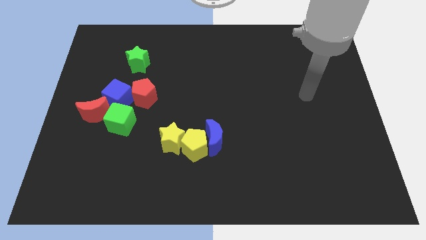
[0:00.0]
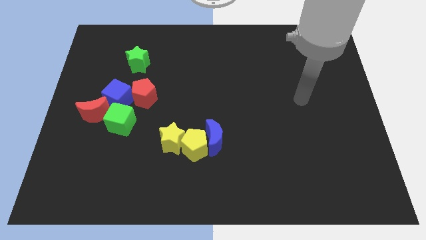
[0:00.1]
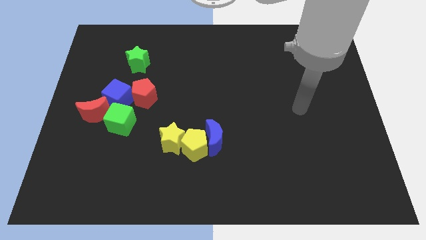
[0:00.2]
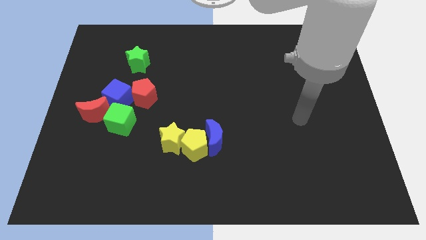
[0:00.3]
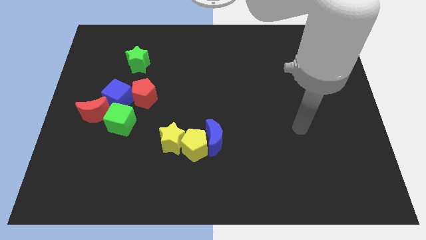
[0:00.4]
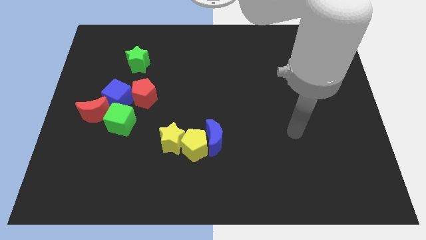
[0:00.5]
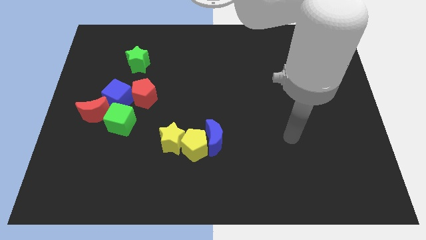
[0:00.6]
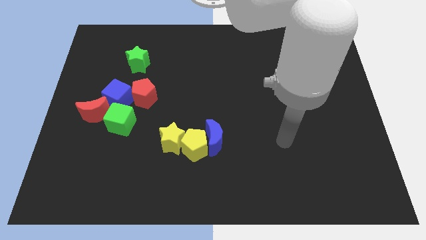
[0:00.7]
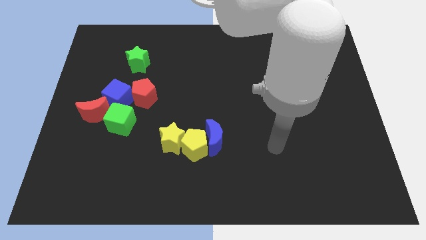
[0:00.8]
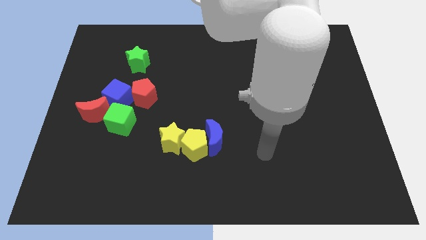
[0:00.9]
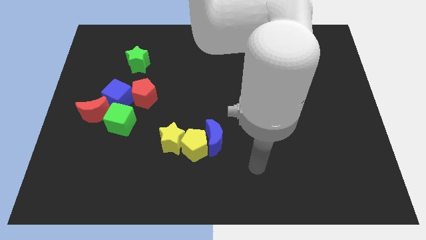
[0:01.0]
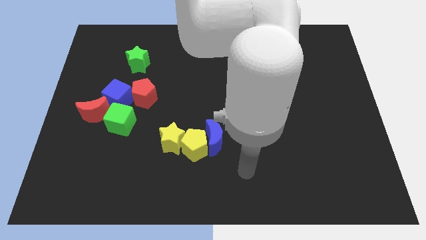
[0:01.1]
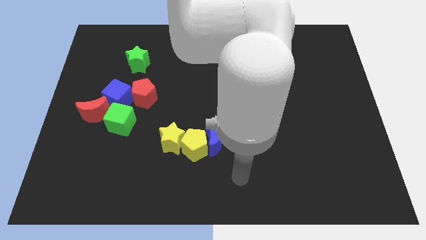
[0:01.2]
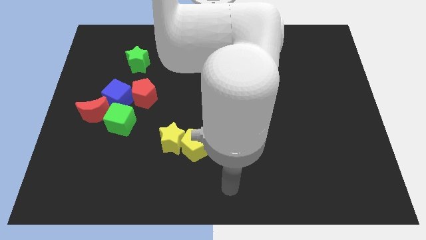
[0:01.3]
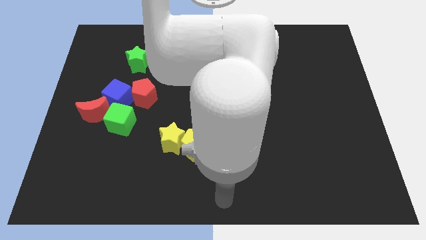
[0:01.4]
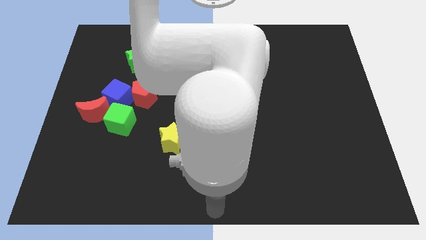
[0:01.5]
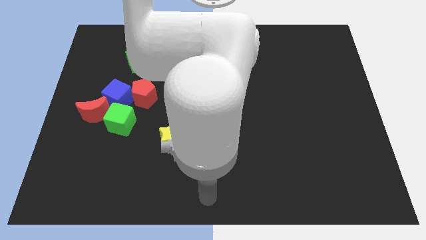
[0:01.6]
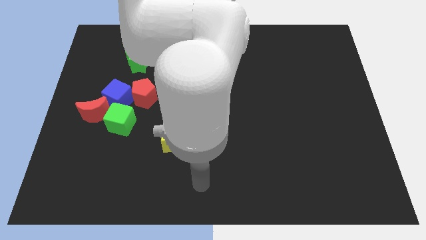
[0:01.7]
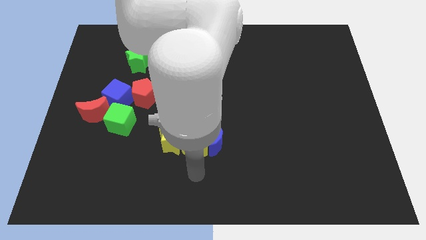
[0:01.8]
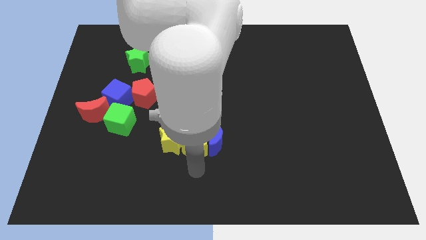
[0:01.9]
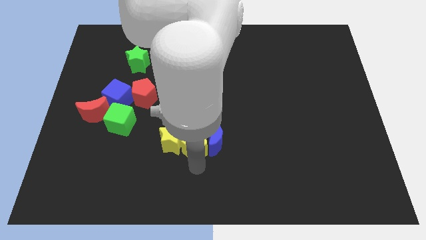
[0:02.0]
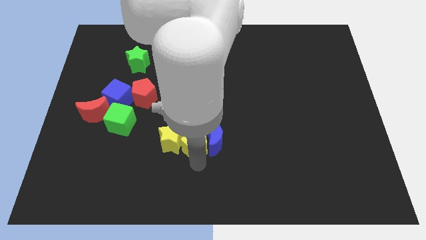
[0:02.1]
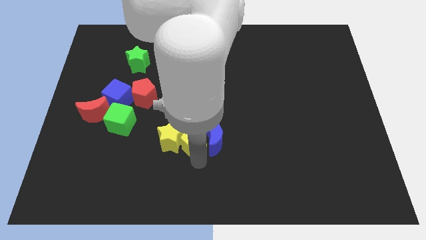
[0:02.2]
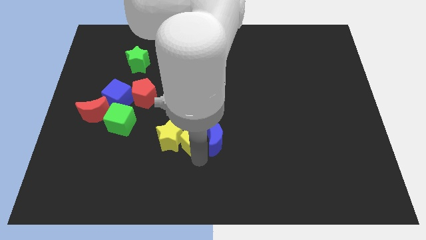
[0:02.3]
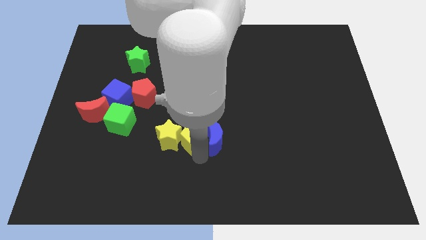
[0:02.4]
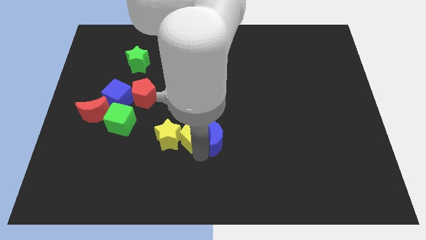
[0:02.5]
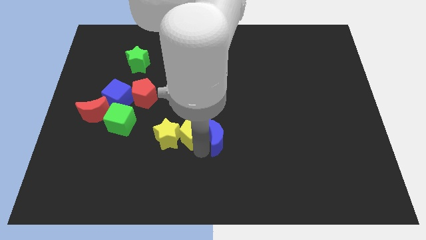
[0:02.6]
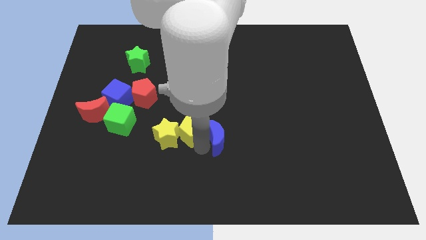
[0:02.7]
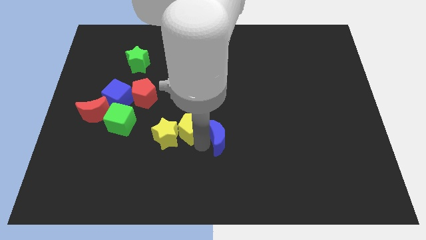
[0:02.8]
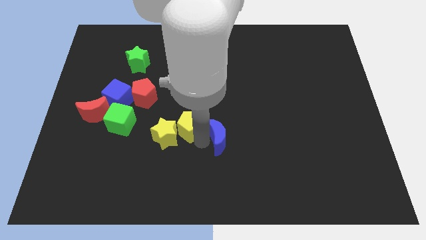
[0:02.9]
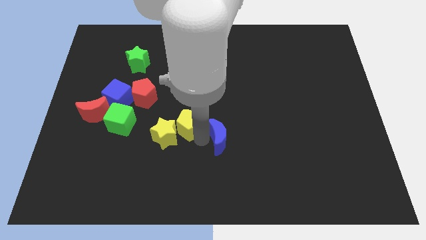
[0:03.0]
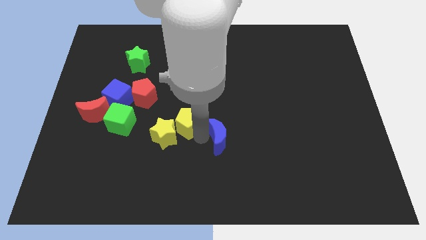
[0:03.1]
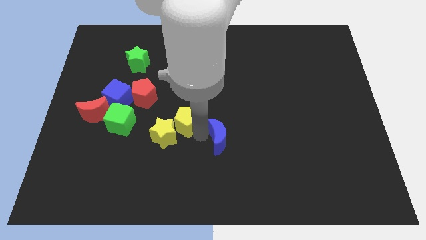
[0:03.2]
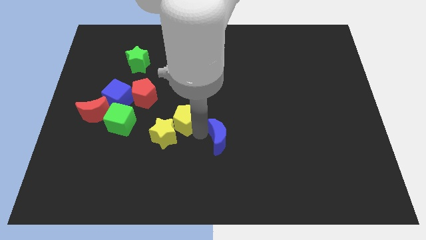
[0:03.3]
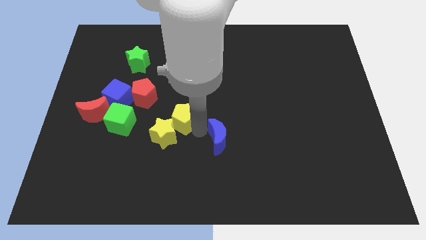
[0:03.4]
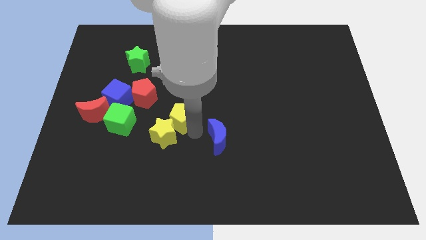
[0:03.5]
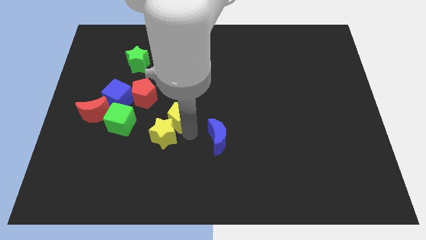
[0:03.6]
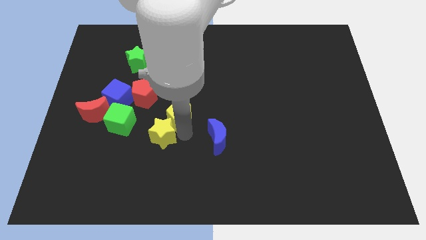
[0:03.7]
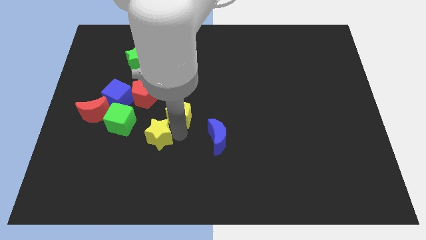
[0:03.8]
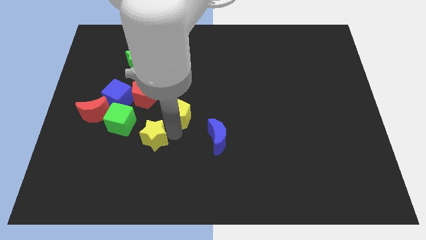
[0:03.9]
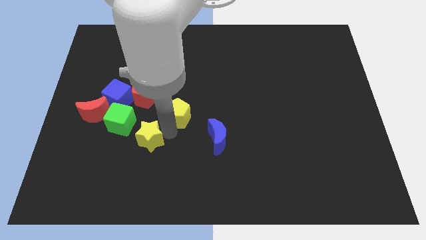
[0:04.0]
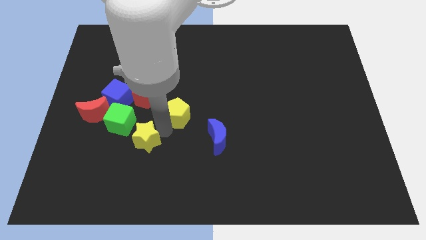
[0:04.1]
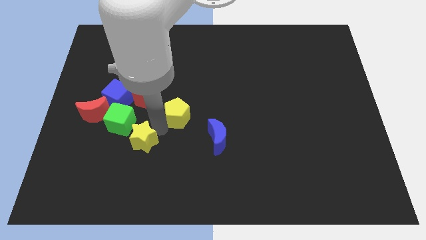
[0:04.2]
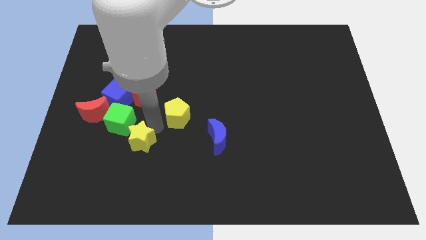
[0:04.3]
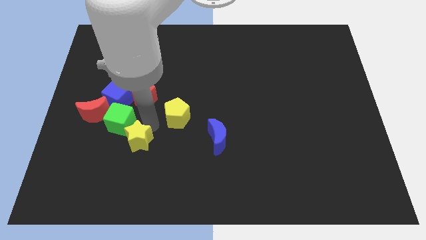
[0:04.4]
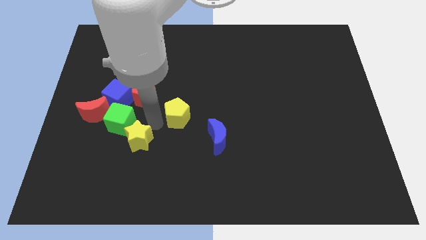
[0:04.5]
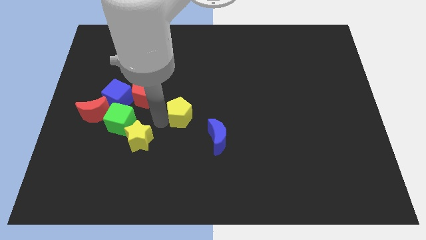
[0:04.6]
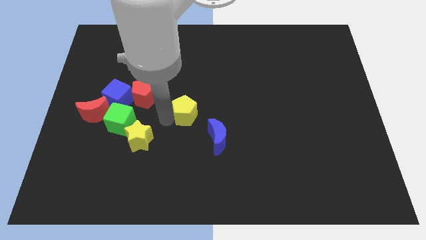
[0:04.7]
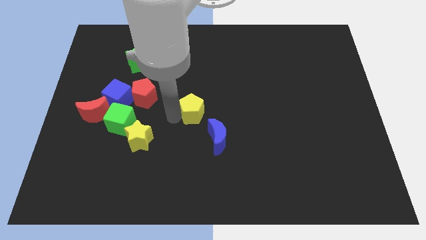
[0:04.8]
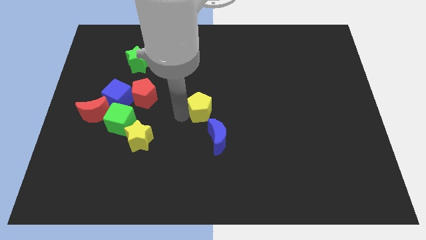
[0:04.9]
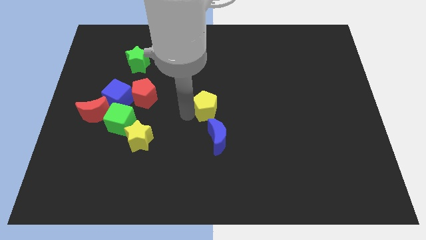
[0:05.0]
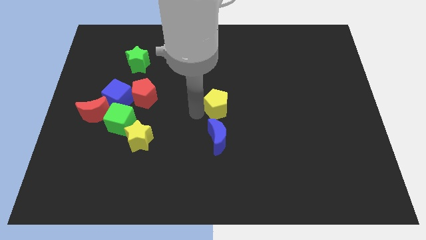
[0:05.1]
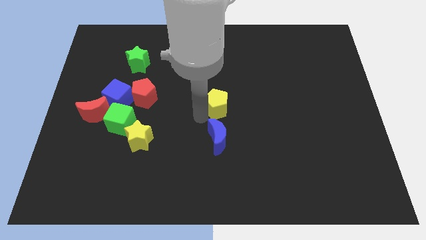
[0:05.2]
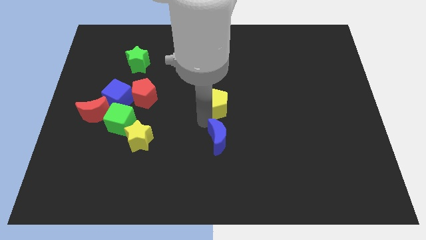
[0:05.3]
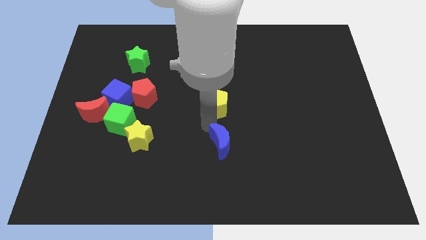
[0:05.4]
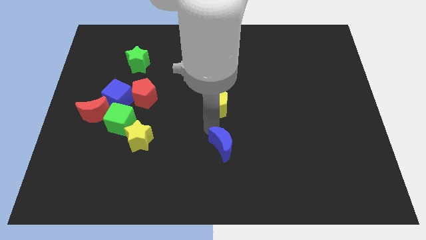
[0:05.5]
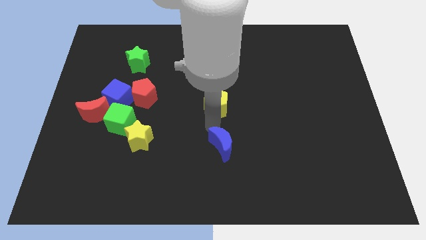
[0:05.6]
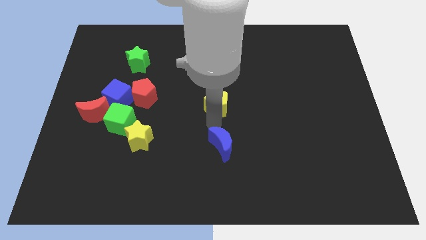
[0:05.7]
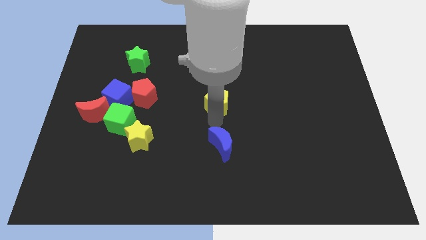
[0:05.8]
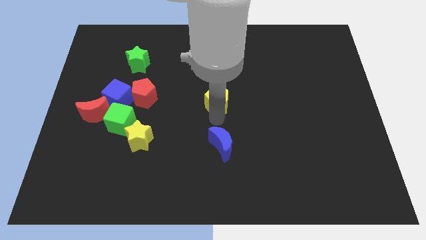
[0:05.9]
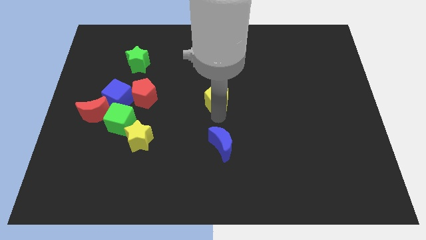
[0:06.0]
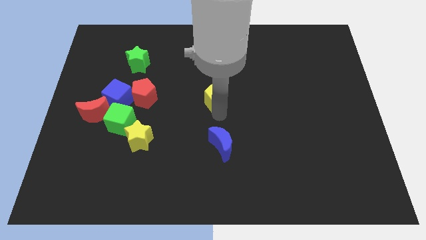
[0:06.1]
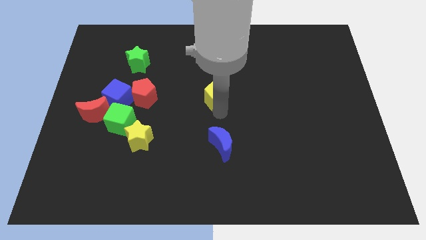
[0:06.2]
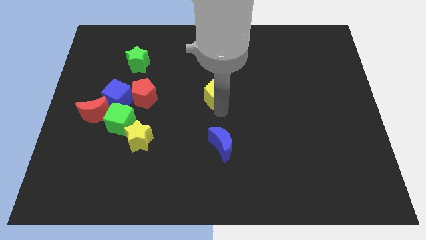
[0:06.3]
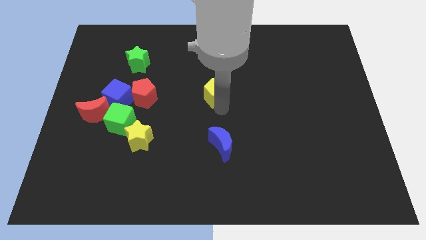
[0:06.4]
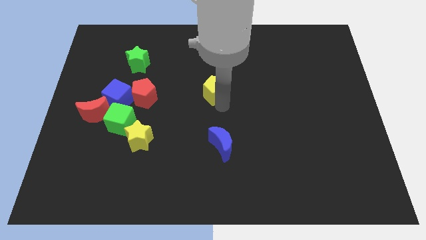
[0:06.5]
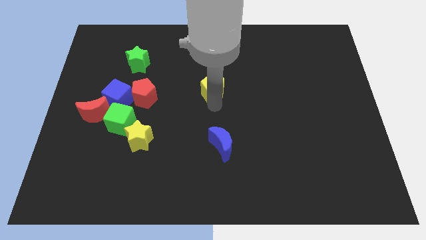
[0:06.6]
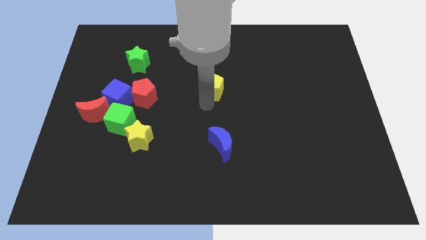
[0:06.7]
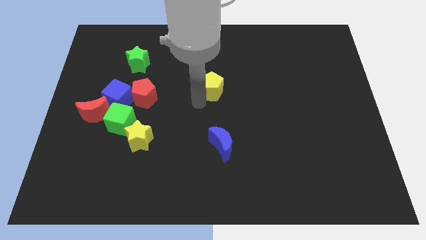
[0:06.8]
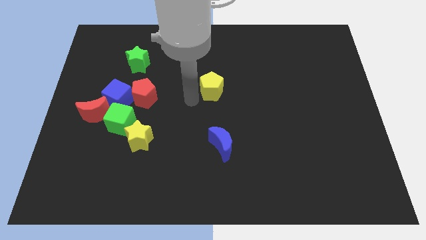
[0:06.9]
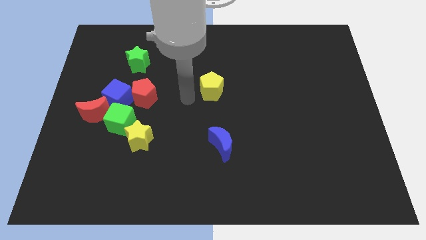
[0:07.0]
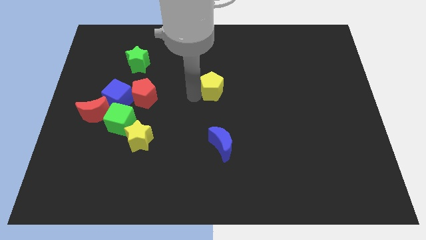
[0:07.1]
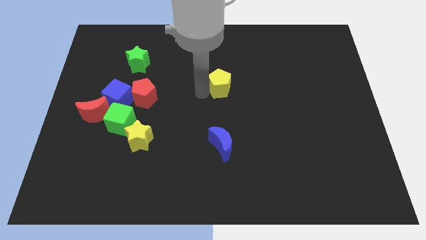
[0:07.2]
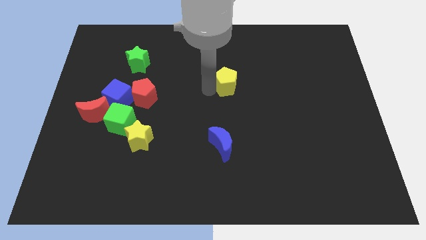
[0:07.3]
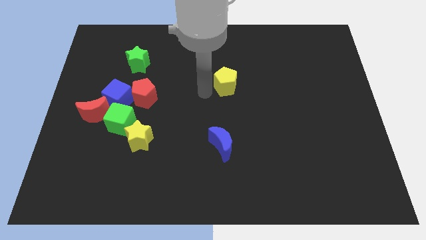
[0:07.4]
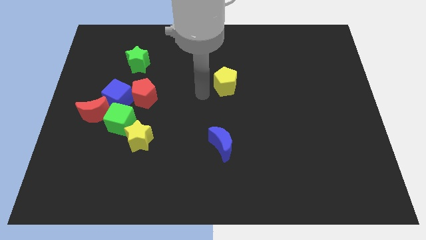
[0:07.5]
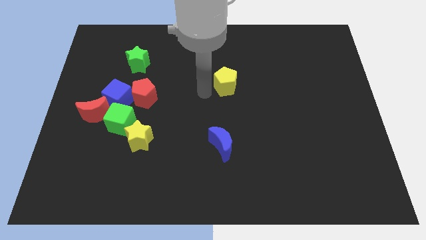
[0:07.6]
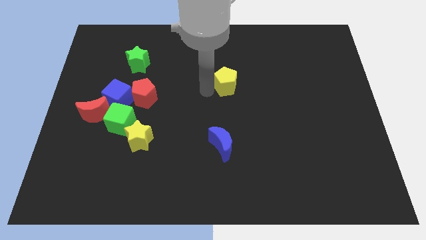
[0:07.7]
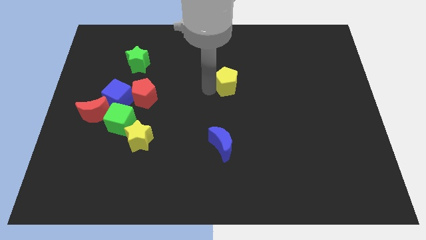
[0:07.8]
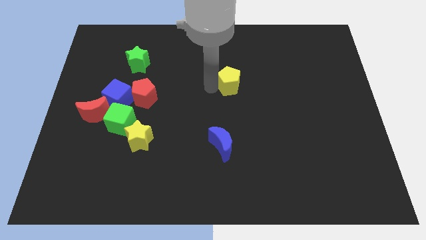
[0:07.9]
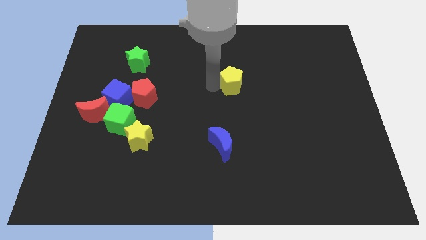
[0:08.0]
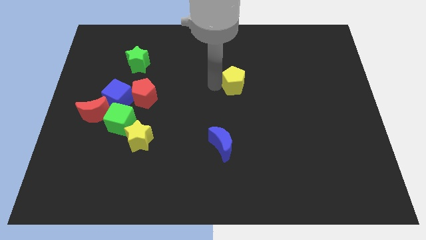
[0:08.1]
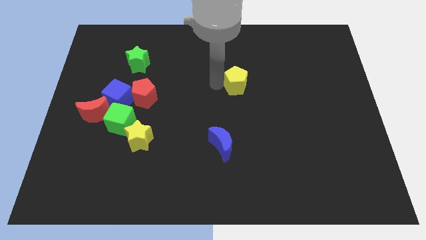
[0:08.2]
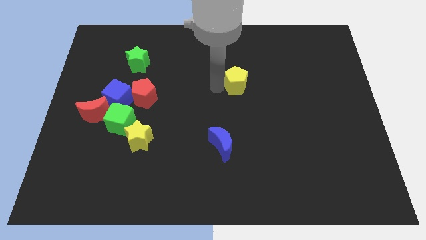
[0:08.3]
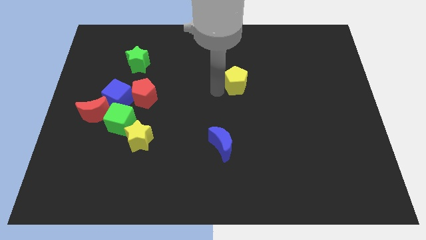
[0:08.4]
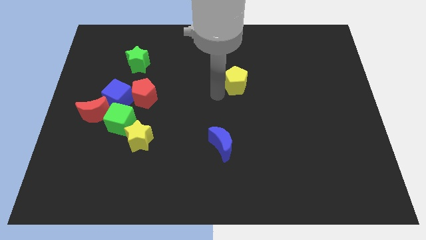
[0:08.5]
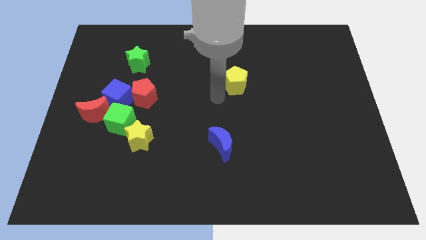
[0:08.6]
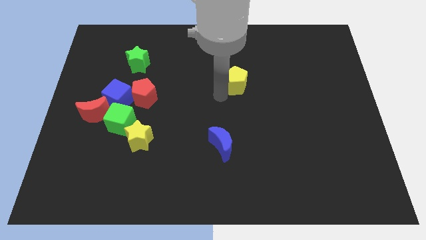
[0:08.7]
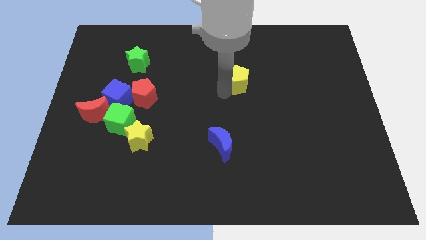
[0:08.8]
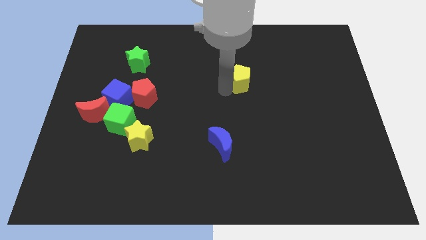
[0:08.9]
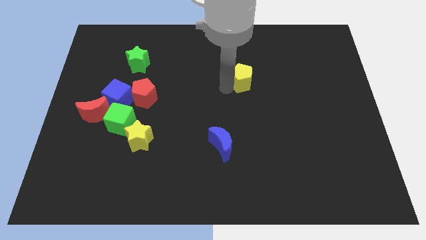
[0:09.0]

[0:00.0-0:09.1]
push the yellow pentagon up and then to the right
